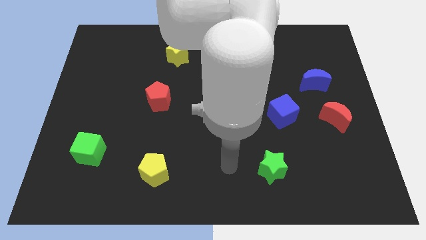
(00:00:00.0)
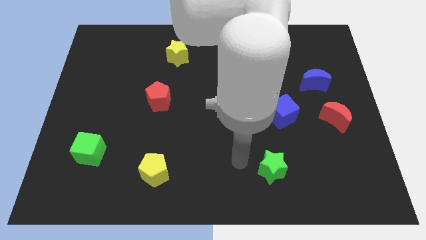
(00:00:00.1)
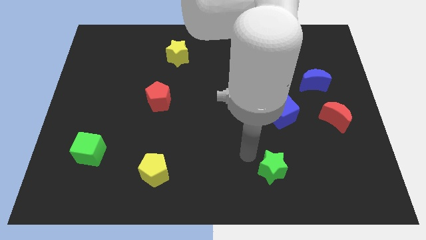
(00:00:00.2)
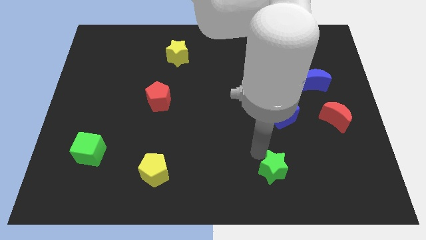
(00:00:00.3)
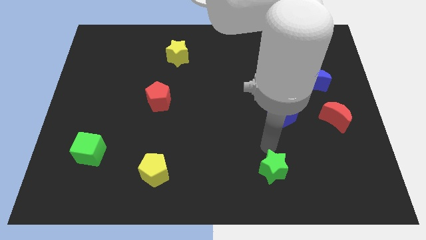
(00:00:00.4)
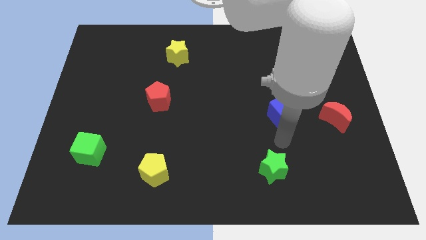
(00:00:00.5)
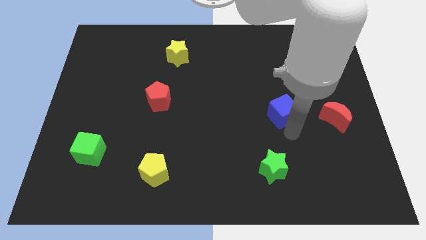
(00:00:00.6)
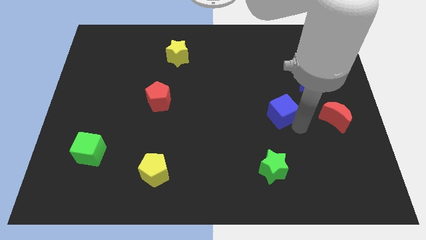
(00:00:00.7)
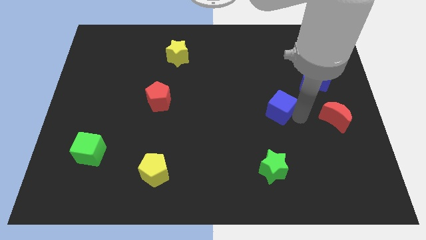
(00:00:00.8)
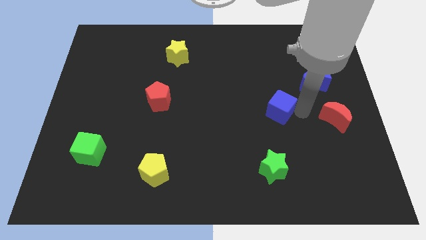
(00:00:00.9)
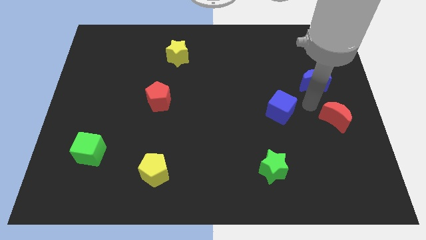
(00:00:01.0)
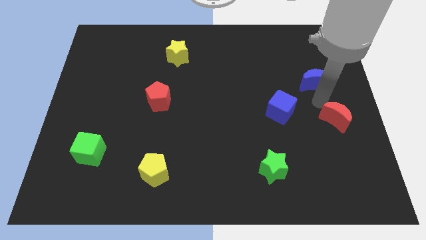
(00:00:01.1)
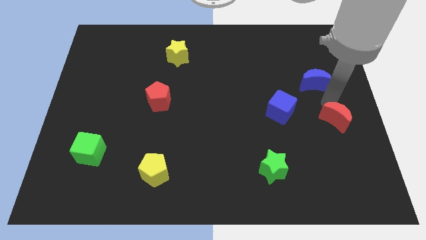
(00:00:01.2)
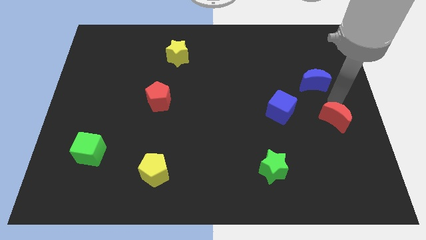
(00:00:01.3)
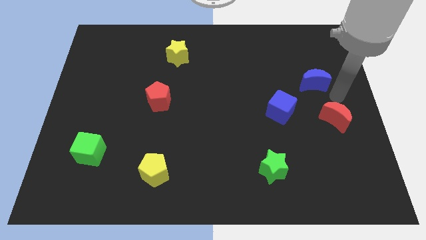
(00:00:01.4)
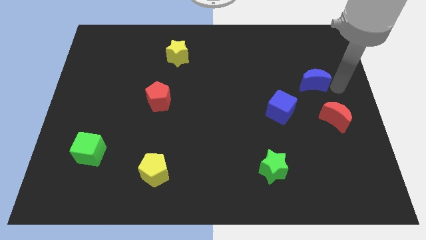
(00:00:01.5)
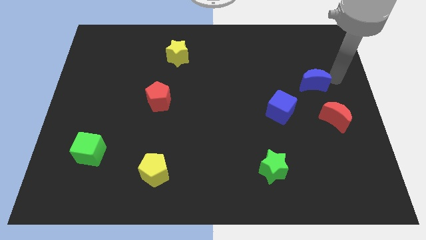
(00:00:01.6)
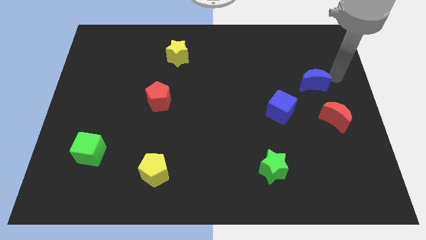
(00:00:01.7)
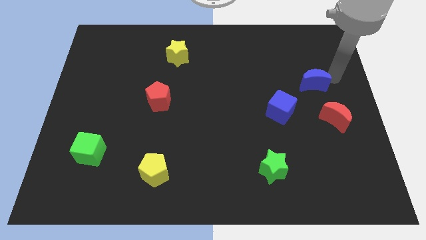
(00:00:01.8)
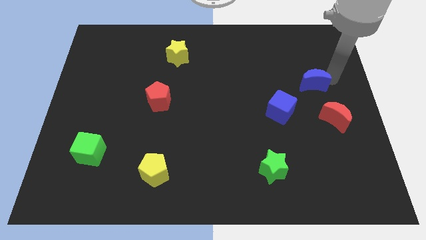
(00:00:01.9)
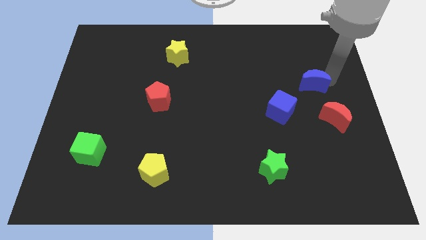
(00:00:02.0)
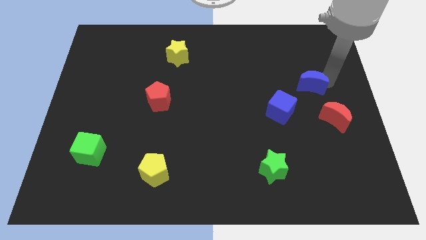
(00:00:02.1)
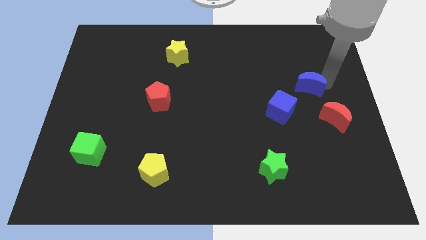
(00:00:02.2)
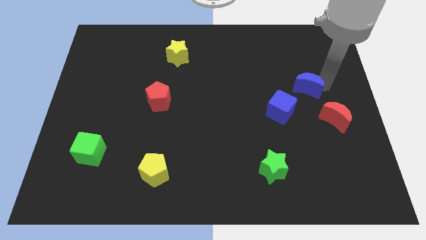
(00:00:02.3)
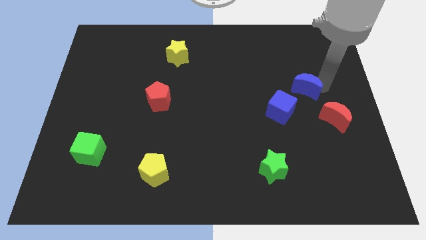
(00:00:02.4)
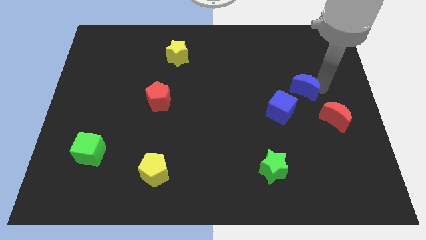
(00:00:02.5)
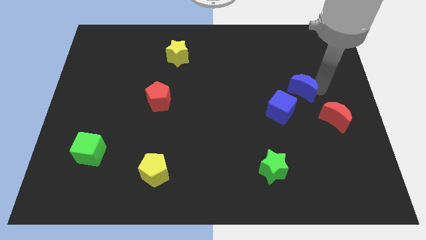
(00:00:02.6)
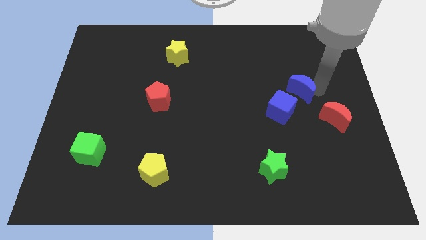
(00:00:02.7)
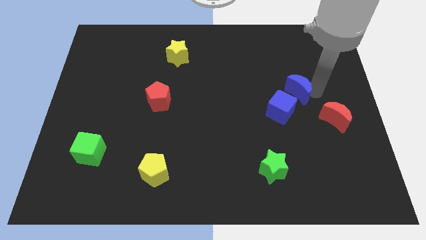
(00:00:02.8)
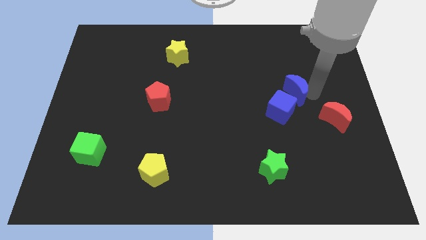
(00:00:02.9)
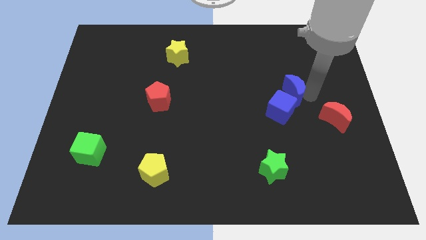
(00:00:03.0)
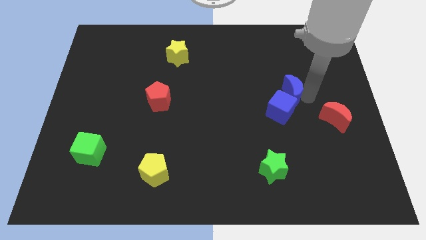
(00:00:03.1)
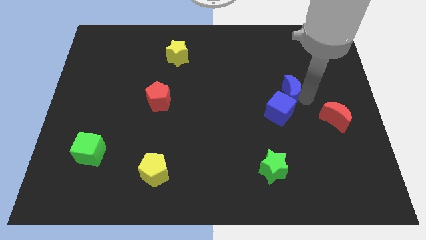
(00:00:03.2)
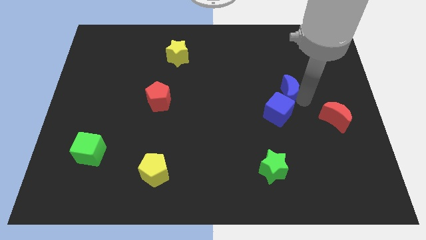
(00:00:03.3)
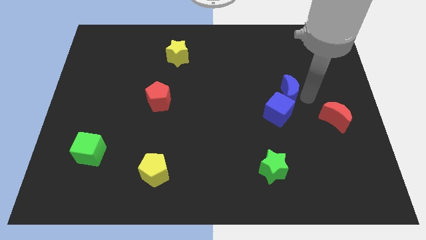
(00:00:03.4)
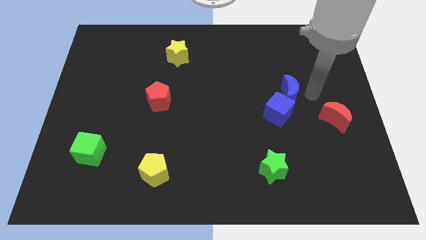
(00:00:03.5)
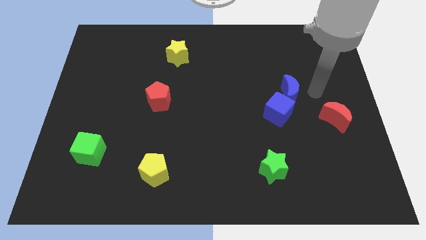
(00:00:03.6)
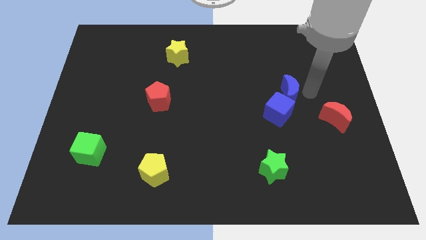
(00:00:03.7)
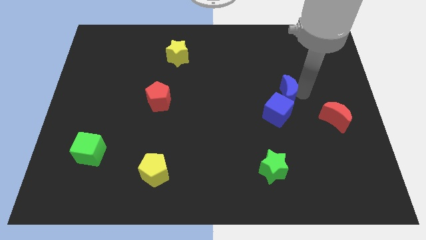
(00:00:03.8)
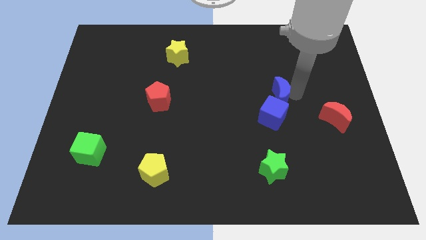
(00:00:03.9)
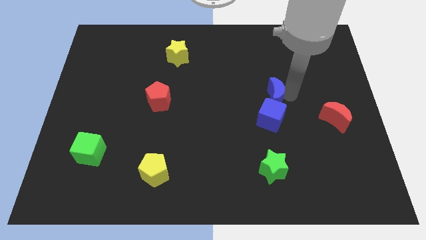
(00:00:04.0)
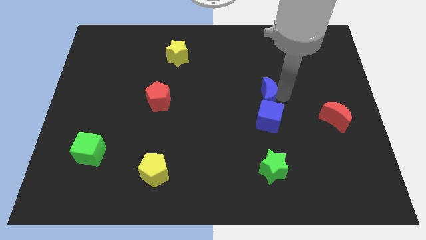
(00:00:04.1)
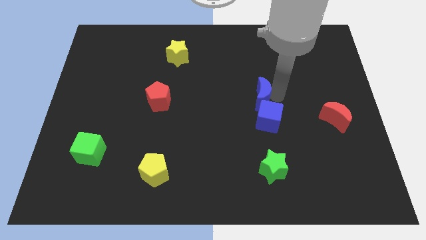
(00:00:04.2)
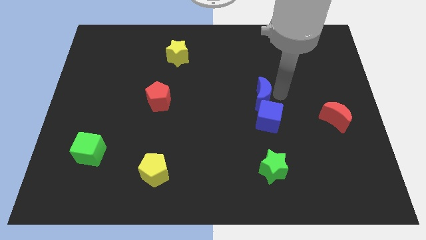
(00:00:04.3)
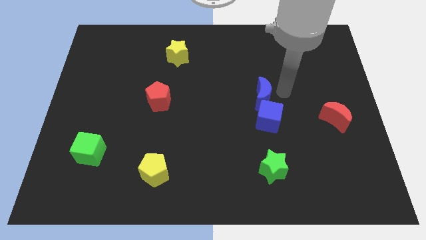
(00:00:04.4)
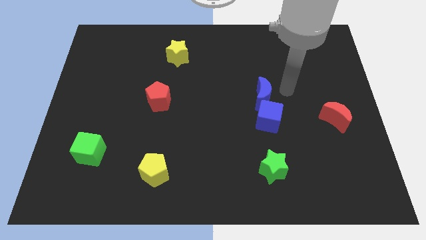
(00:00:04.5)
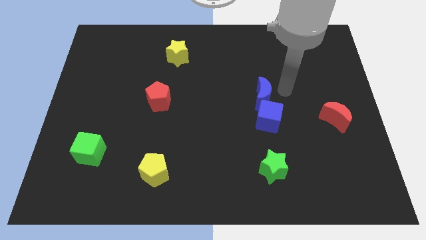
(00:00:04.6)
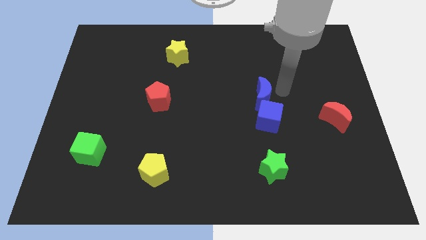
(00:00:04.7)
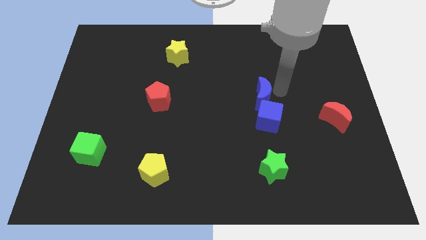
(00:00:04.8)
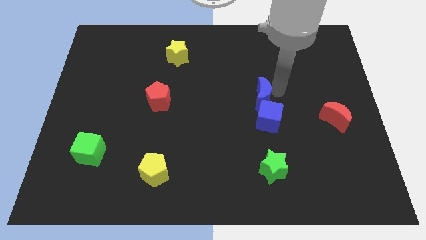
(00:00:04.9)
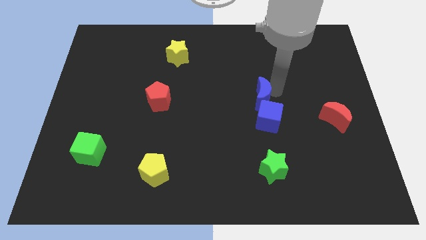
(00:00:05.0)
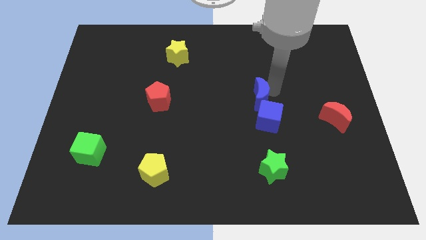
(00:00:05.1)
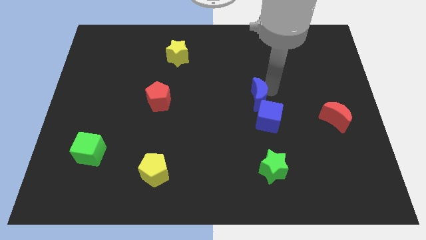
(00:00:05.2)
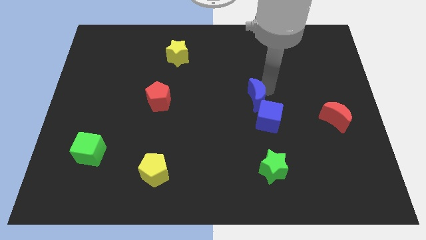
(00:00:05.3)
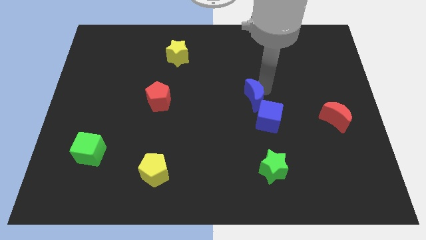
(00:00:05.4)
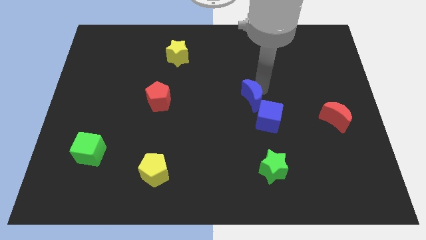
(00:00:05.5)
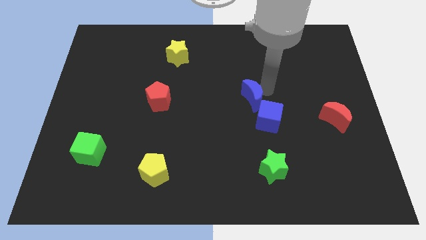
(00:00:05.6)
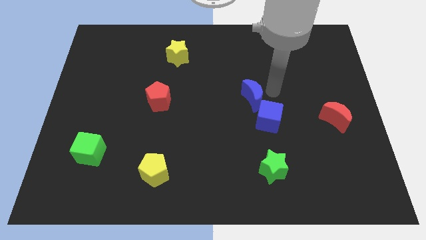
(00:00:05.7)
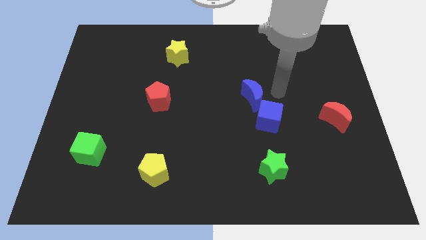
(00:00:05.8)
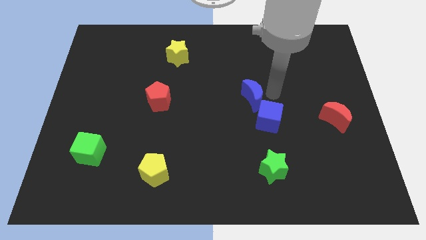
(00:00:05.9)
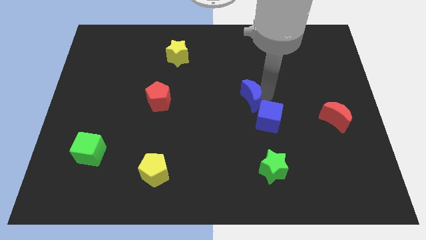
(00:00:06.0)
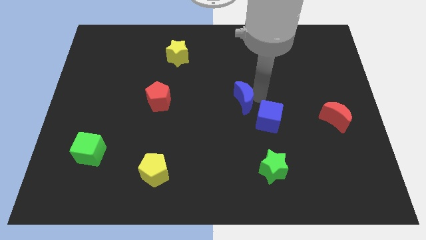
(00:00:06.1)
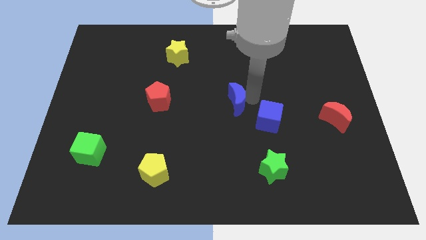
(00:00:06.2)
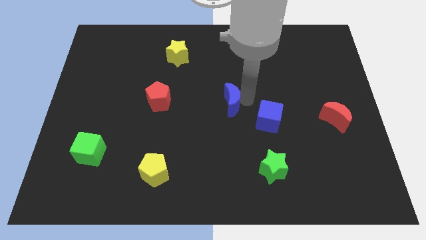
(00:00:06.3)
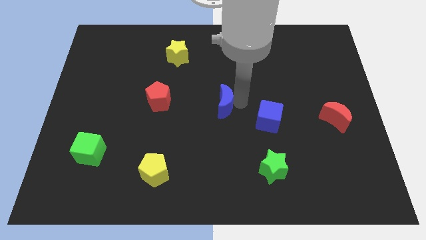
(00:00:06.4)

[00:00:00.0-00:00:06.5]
slide the blue moon just right of the red pentagon
